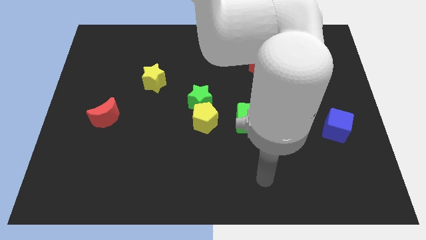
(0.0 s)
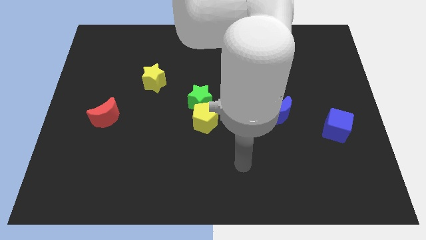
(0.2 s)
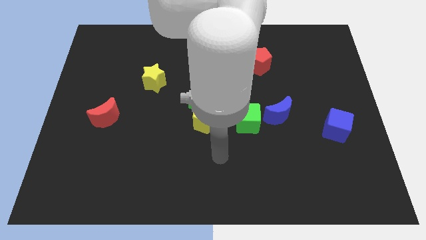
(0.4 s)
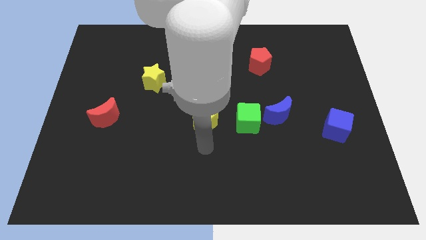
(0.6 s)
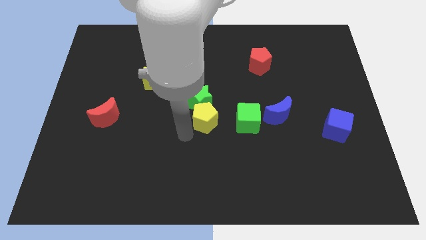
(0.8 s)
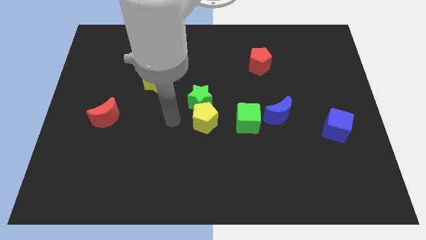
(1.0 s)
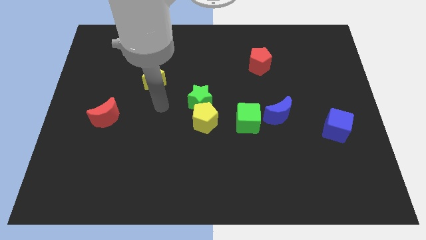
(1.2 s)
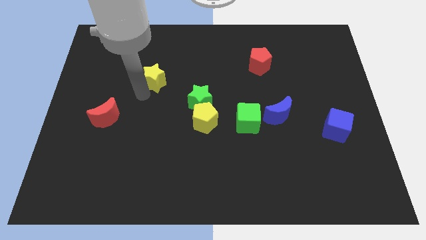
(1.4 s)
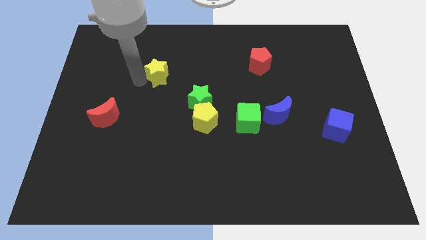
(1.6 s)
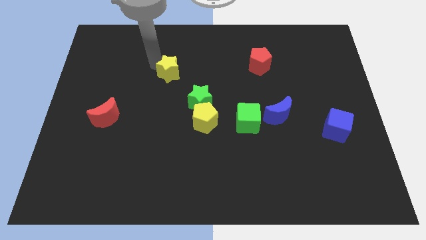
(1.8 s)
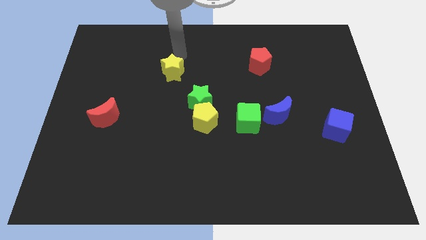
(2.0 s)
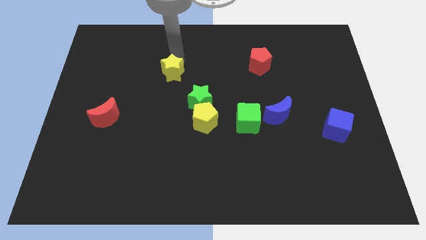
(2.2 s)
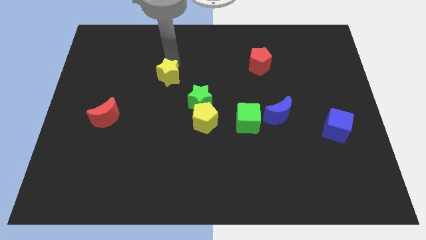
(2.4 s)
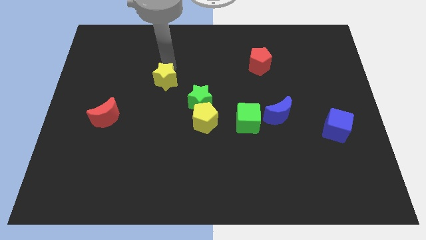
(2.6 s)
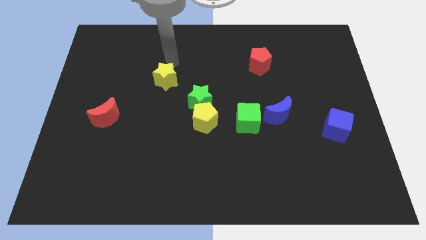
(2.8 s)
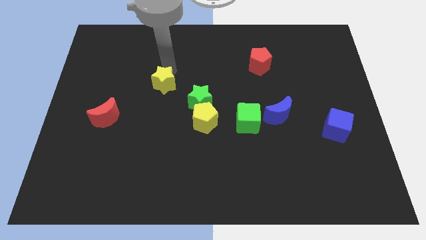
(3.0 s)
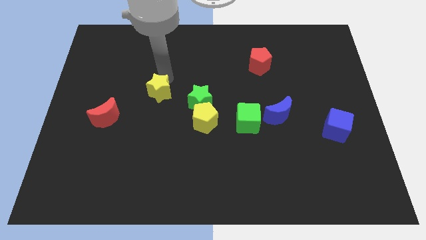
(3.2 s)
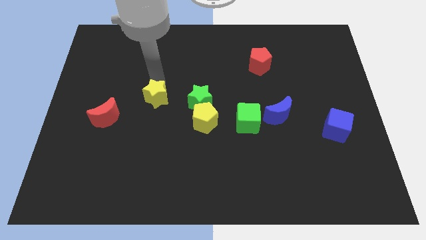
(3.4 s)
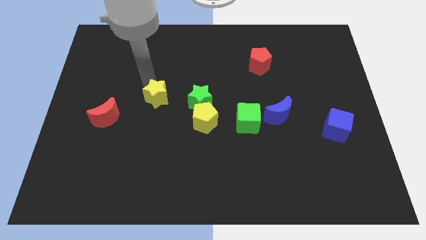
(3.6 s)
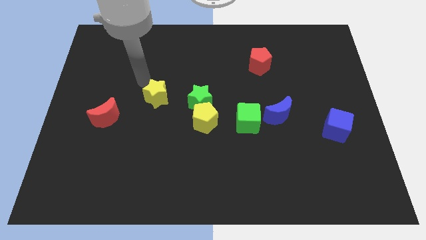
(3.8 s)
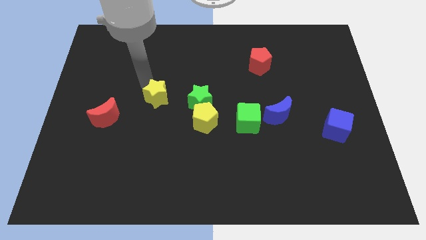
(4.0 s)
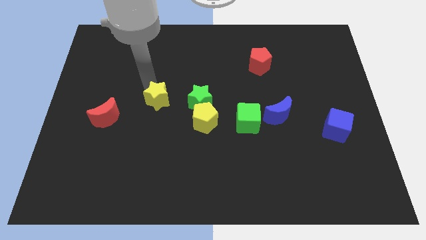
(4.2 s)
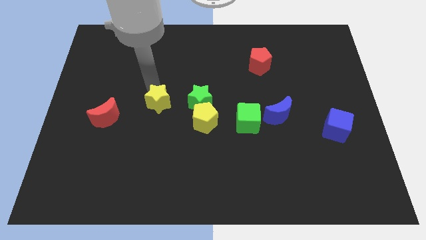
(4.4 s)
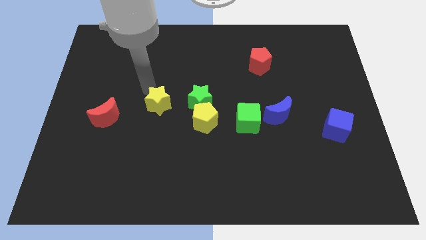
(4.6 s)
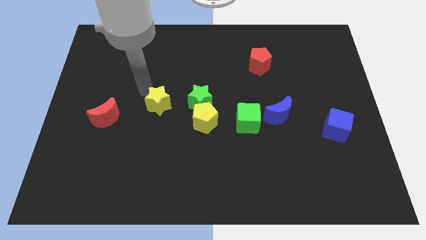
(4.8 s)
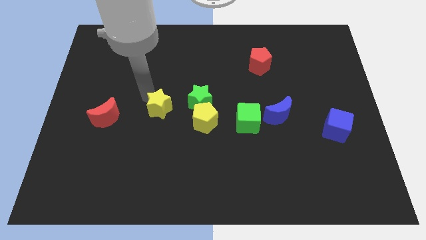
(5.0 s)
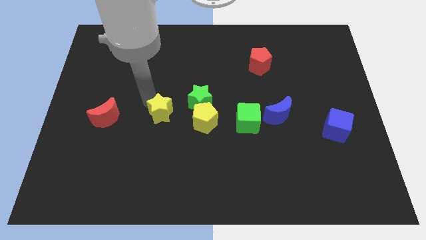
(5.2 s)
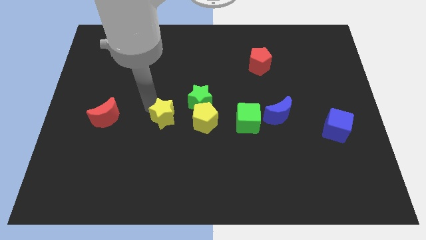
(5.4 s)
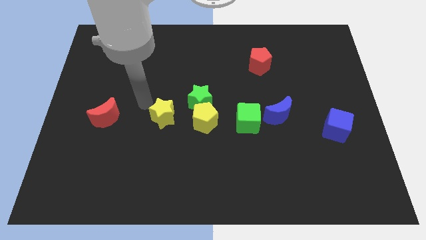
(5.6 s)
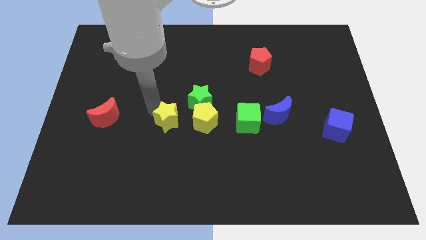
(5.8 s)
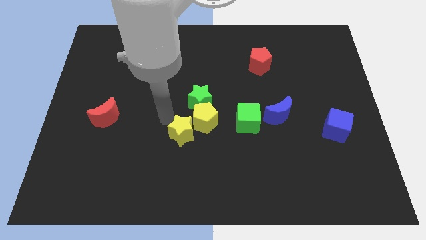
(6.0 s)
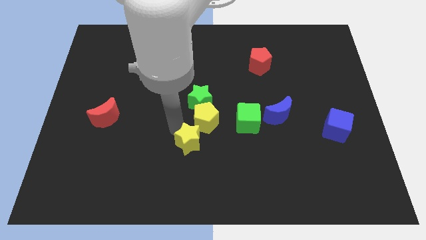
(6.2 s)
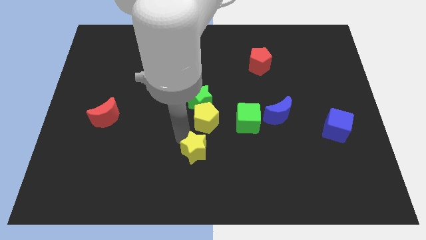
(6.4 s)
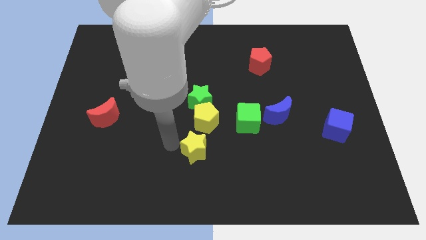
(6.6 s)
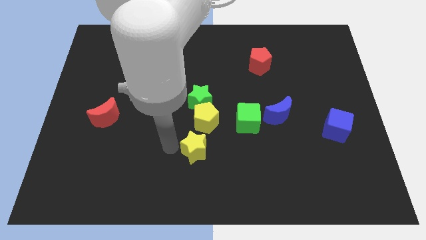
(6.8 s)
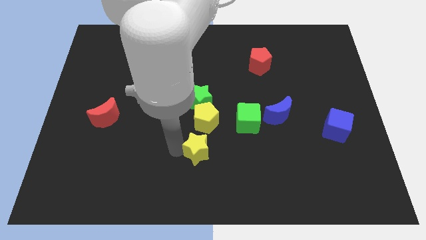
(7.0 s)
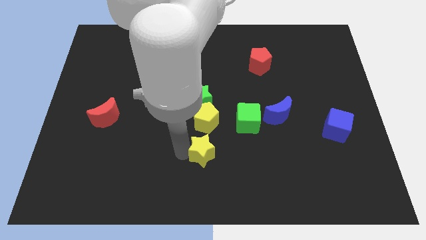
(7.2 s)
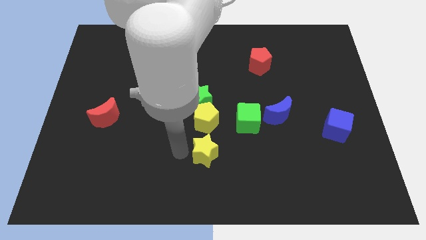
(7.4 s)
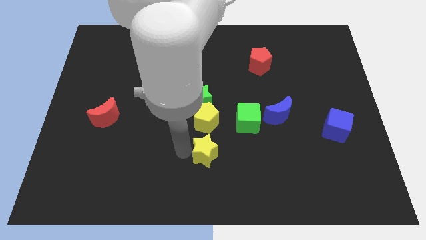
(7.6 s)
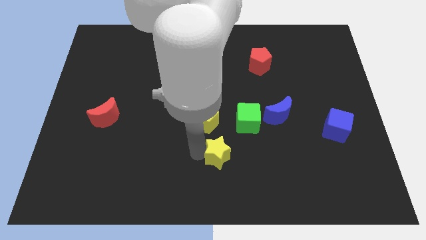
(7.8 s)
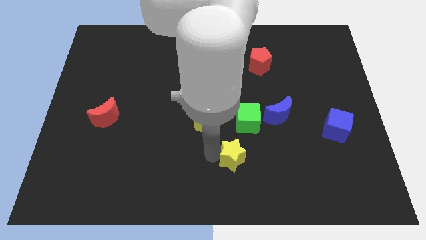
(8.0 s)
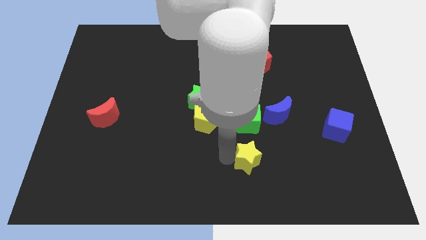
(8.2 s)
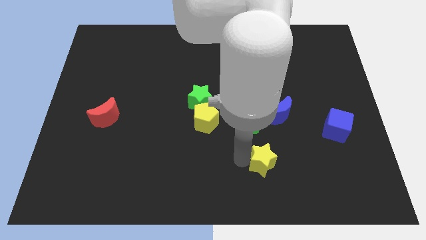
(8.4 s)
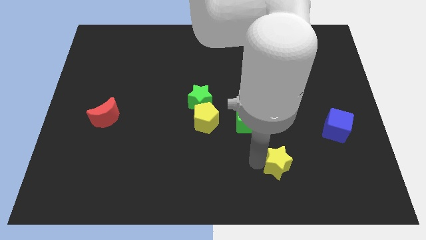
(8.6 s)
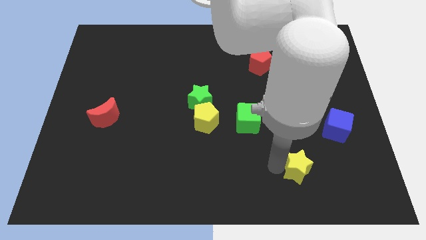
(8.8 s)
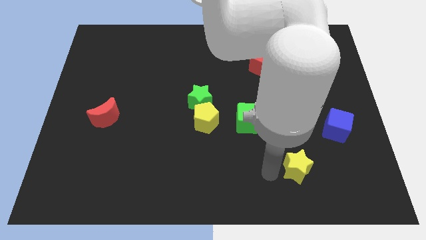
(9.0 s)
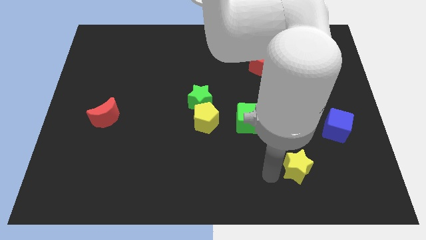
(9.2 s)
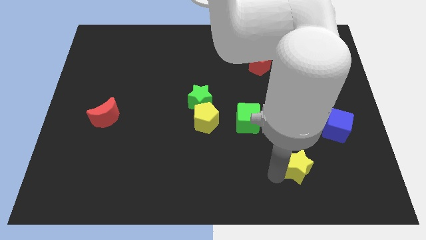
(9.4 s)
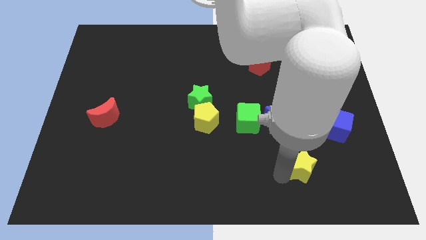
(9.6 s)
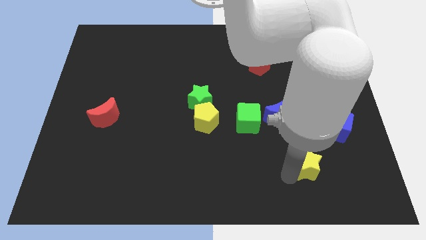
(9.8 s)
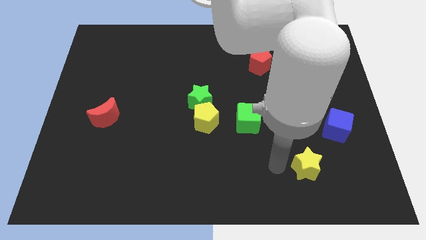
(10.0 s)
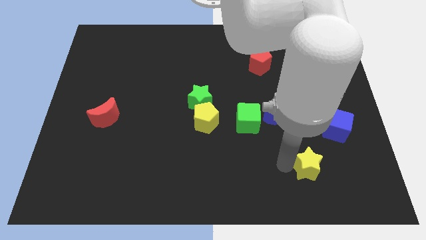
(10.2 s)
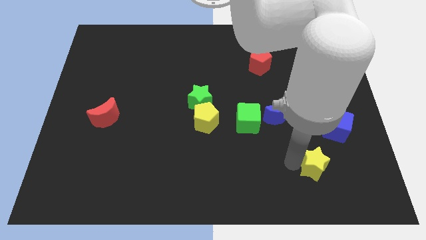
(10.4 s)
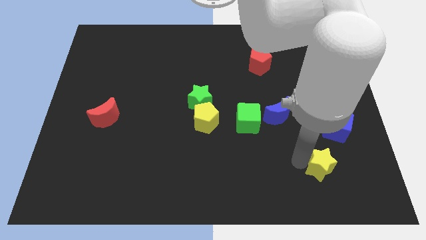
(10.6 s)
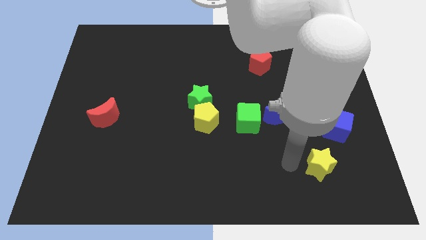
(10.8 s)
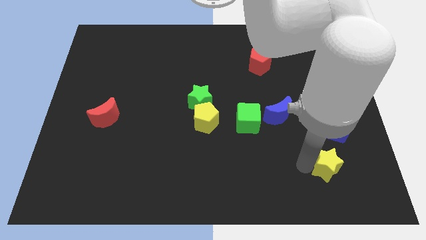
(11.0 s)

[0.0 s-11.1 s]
move the yellow star below the blue cube

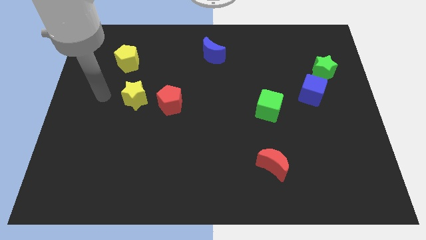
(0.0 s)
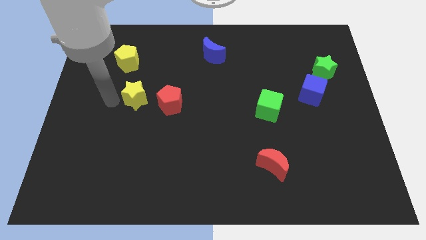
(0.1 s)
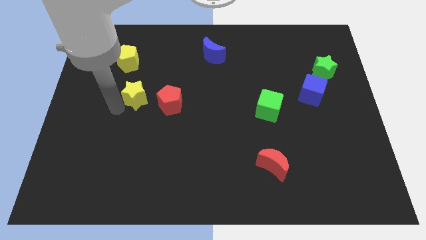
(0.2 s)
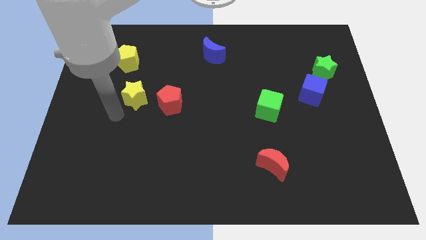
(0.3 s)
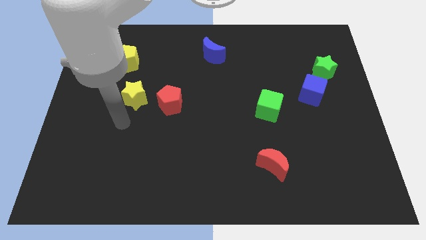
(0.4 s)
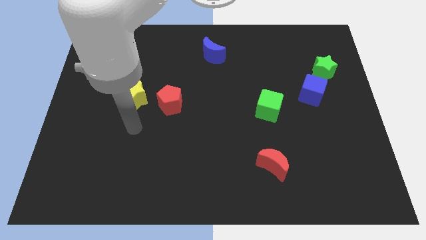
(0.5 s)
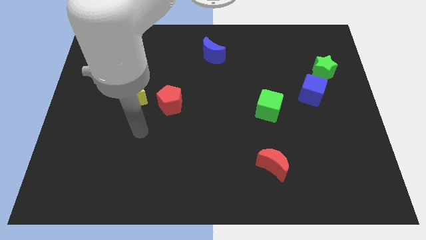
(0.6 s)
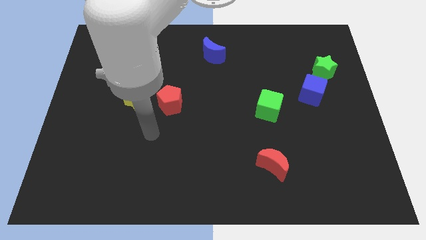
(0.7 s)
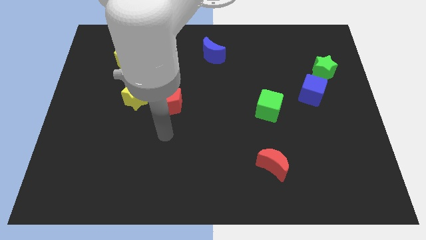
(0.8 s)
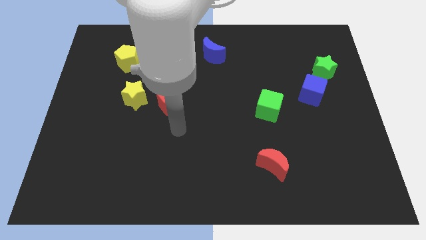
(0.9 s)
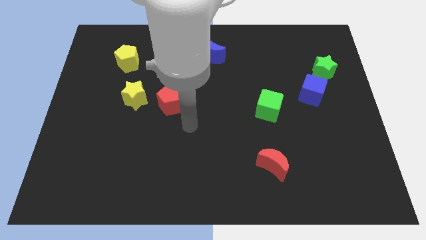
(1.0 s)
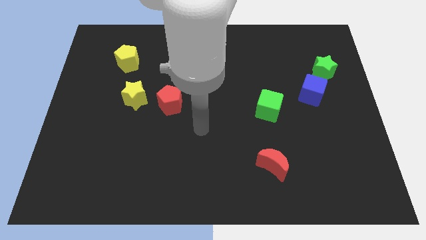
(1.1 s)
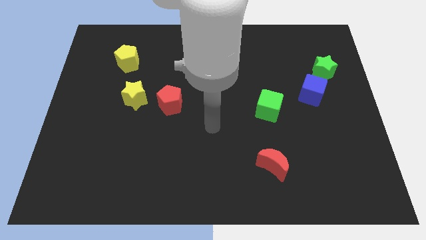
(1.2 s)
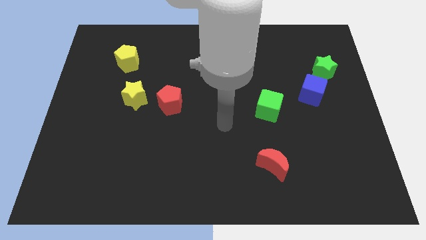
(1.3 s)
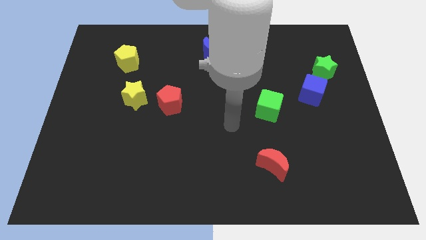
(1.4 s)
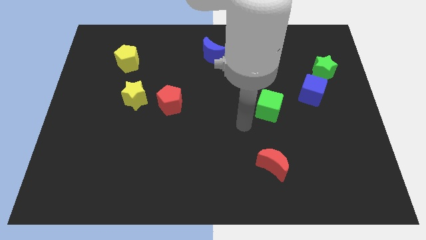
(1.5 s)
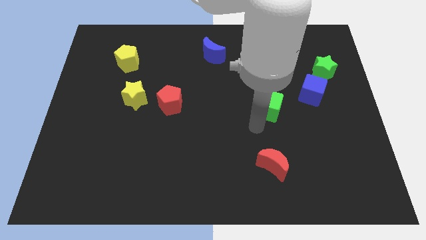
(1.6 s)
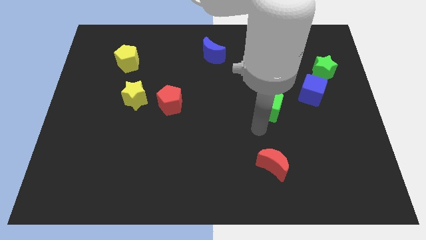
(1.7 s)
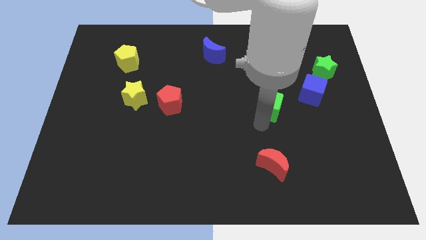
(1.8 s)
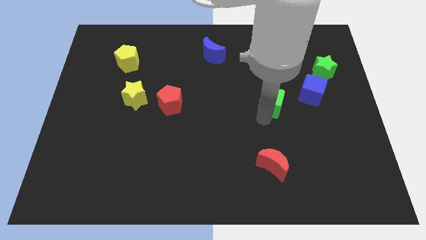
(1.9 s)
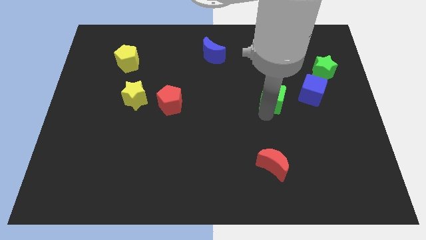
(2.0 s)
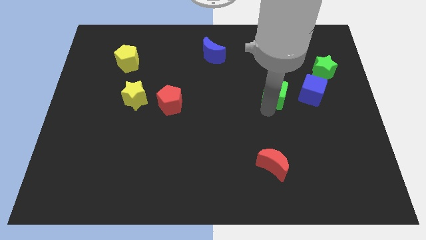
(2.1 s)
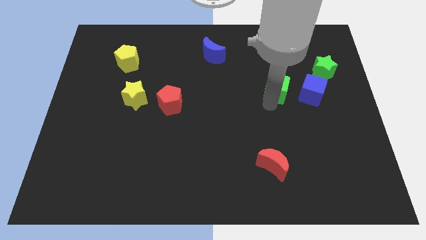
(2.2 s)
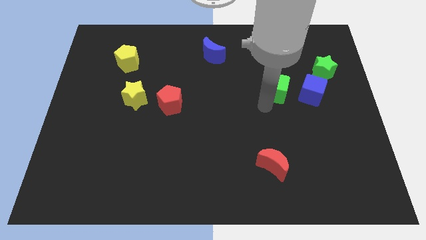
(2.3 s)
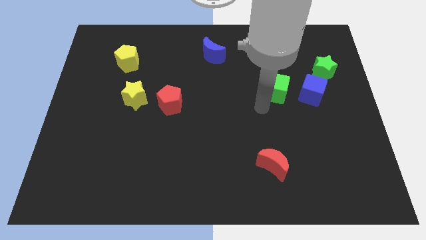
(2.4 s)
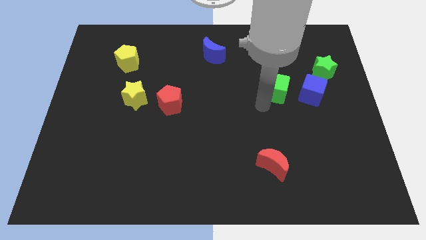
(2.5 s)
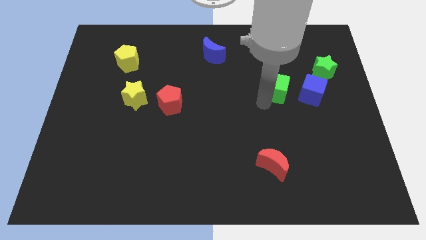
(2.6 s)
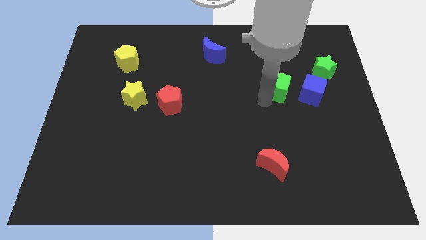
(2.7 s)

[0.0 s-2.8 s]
push the green cube to the top left of the blue cube
